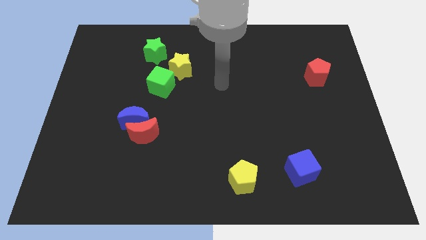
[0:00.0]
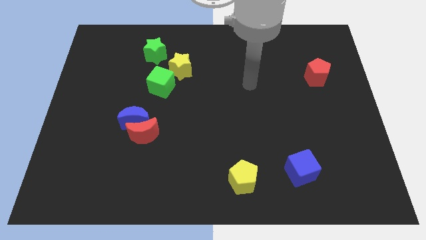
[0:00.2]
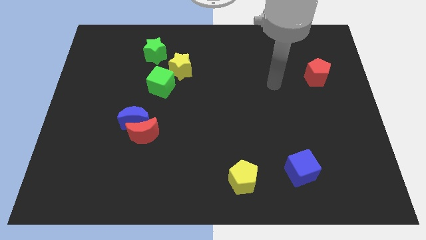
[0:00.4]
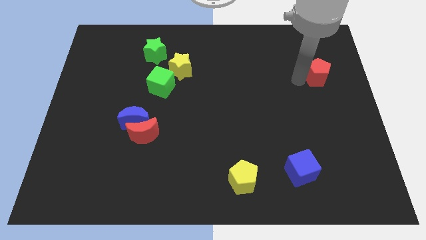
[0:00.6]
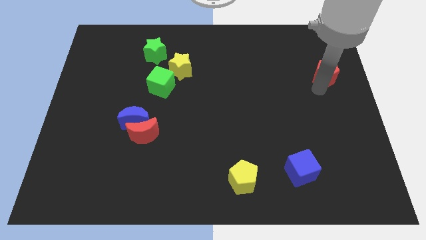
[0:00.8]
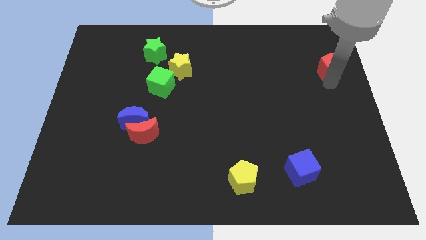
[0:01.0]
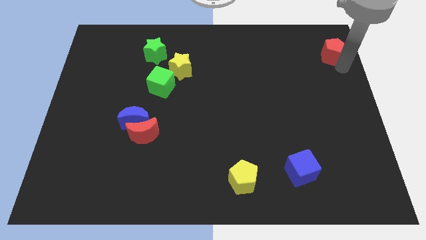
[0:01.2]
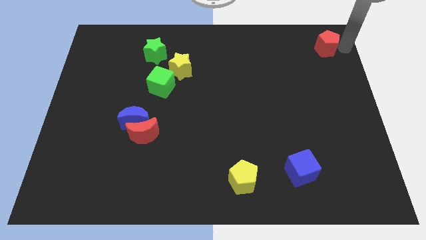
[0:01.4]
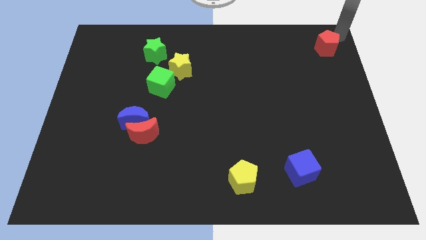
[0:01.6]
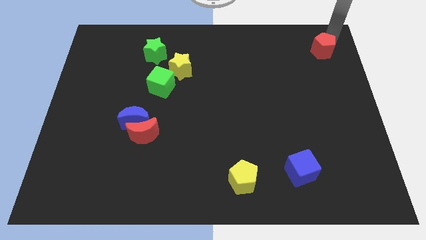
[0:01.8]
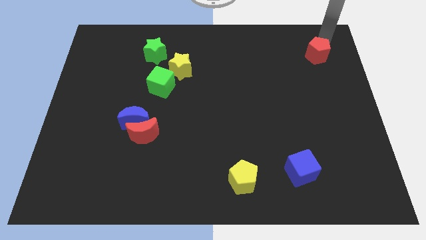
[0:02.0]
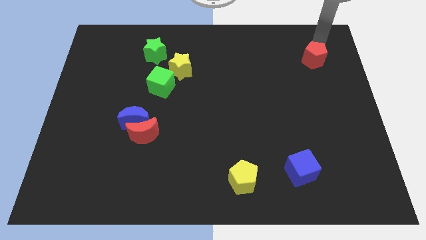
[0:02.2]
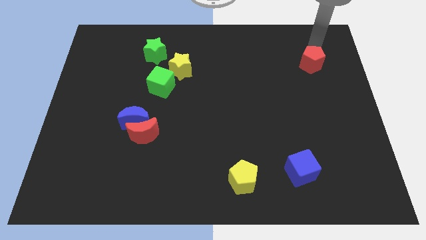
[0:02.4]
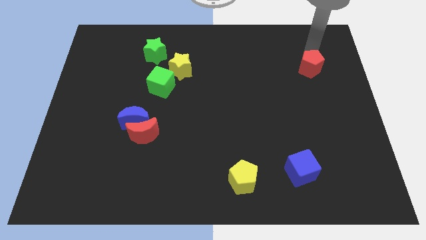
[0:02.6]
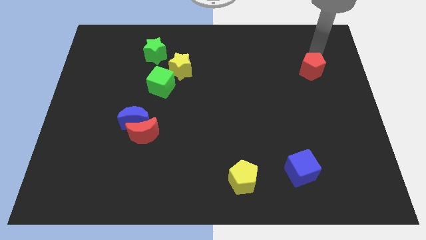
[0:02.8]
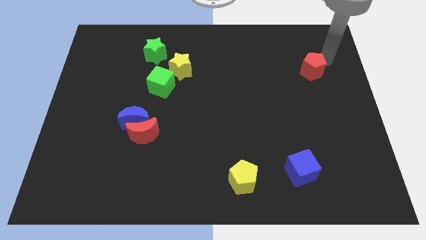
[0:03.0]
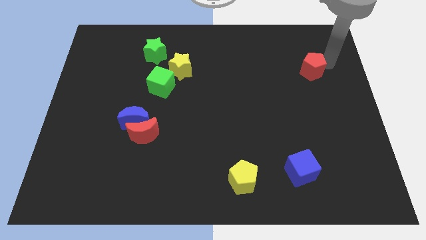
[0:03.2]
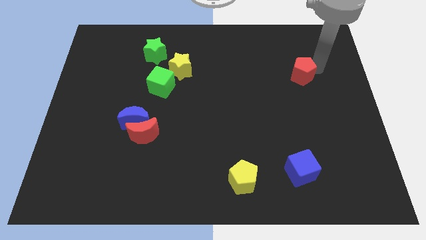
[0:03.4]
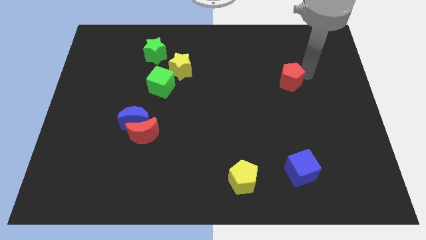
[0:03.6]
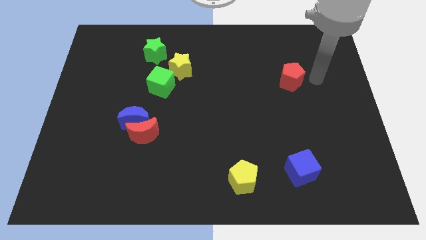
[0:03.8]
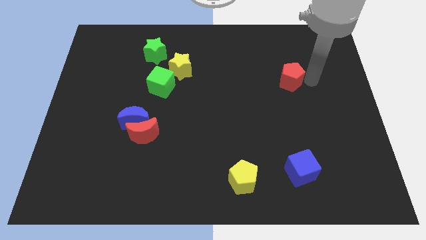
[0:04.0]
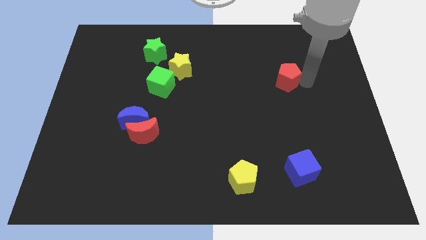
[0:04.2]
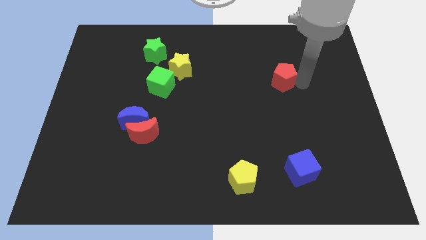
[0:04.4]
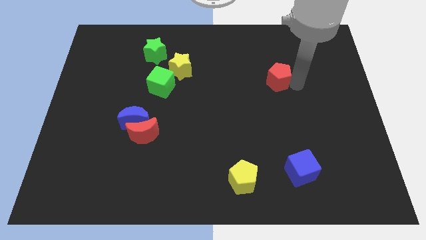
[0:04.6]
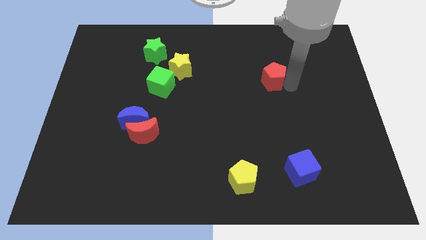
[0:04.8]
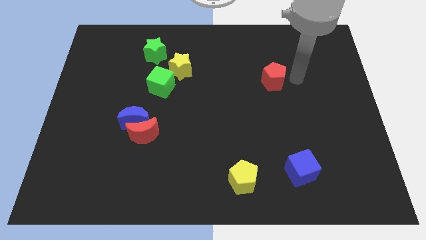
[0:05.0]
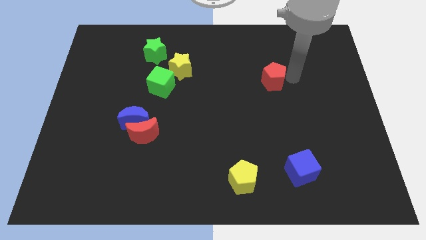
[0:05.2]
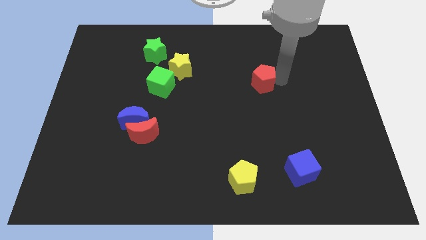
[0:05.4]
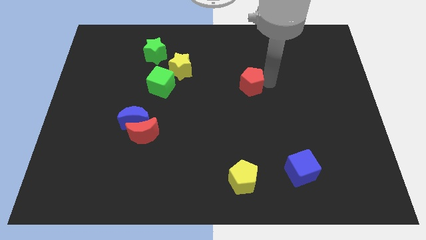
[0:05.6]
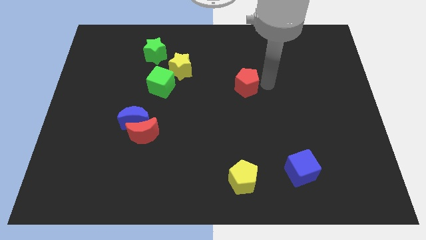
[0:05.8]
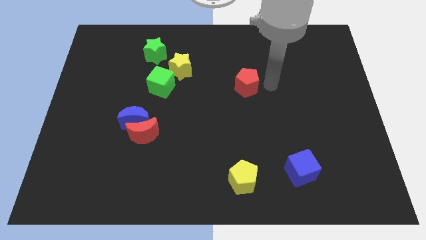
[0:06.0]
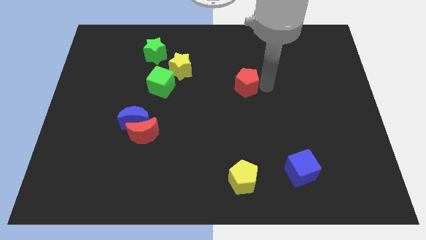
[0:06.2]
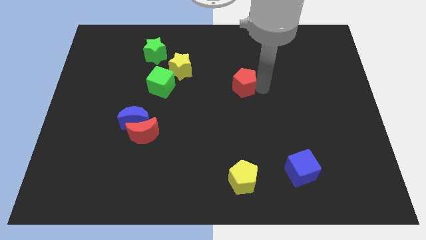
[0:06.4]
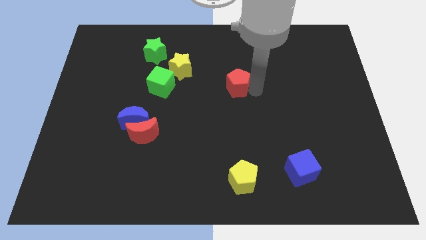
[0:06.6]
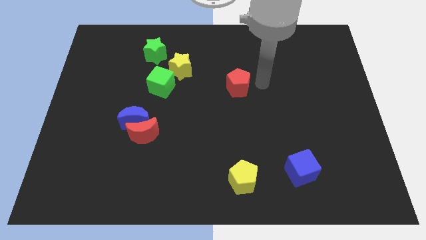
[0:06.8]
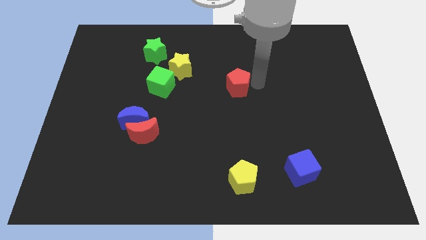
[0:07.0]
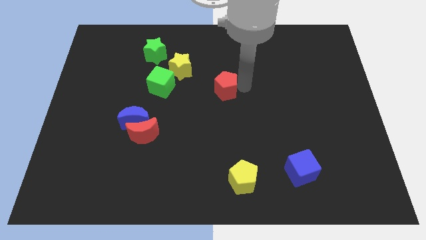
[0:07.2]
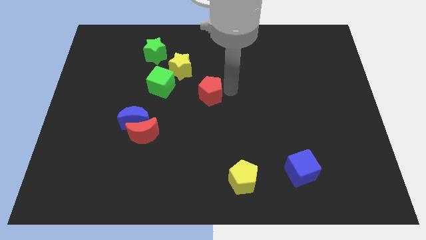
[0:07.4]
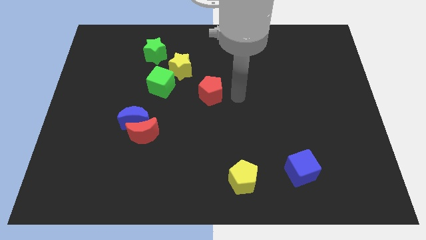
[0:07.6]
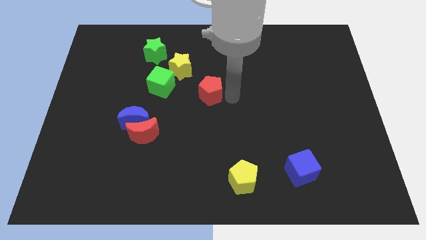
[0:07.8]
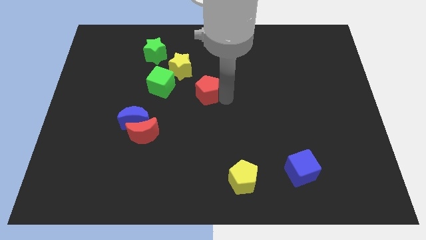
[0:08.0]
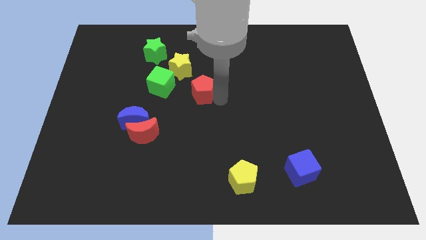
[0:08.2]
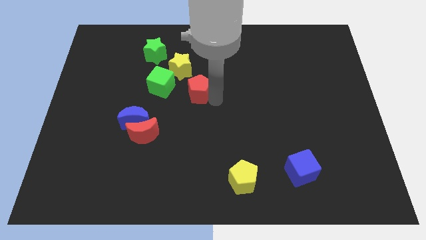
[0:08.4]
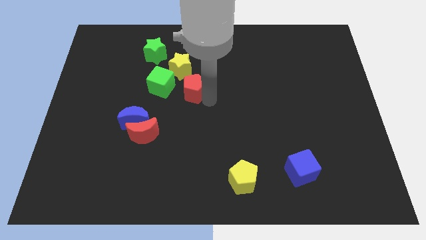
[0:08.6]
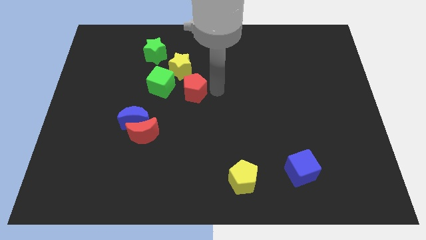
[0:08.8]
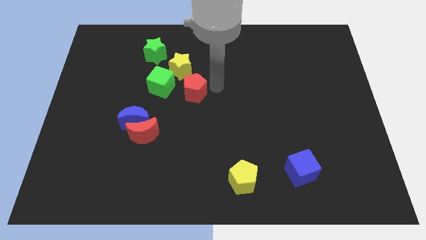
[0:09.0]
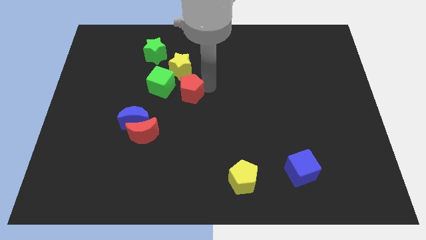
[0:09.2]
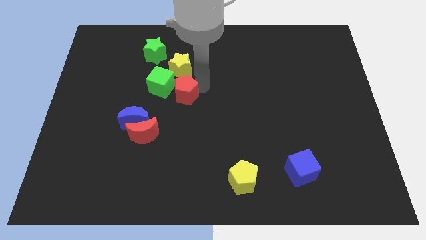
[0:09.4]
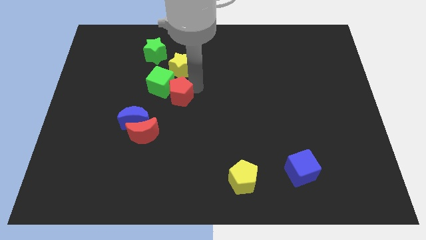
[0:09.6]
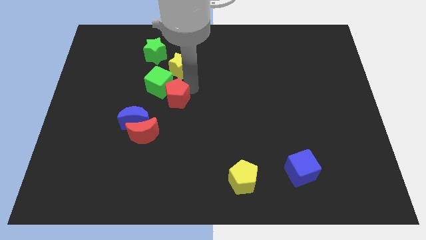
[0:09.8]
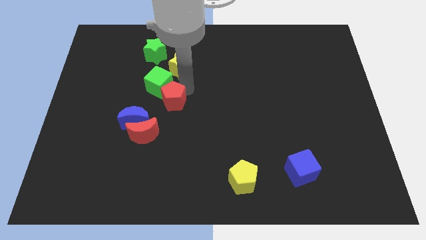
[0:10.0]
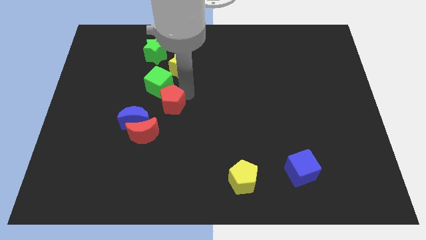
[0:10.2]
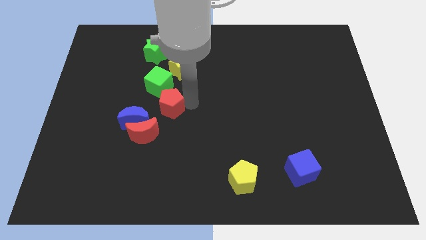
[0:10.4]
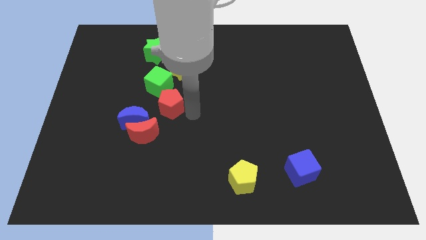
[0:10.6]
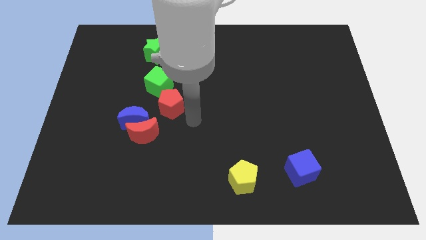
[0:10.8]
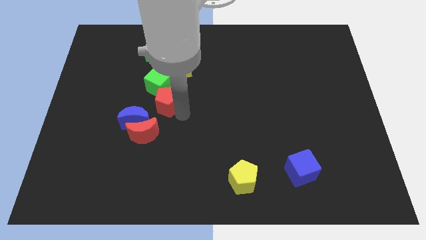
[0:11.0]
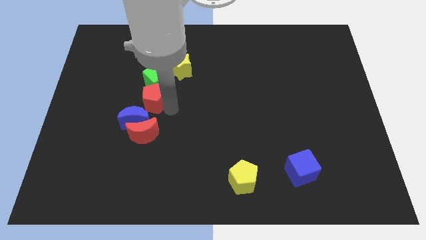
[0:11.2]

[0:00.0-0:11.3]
put the red pentagon to the bottom left side of the yellow star

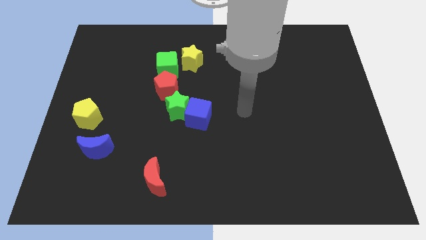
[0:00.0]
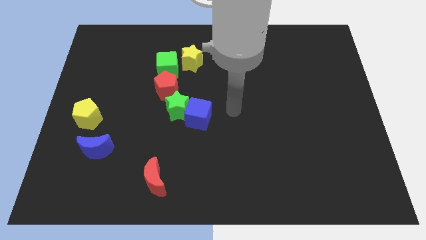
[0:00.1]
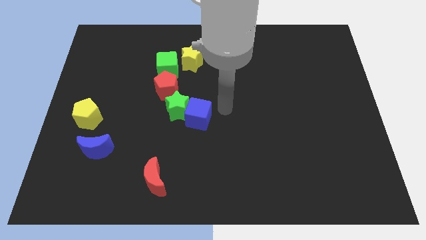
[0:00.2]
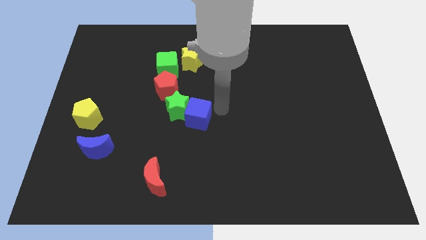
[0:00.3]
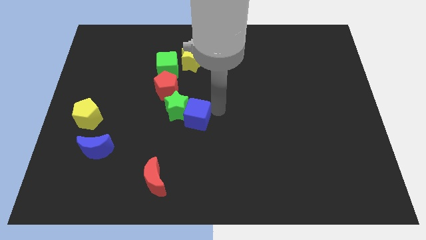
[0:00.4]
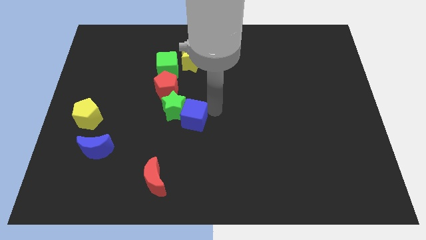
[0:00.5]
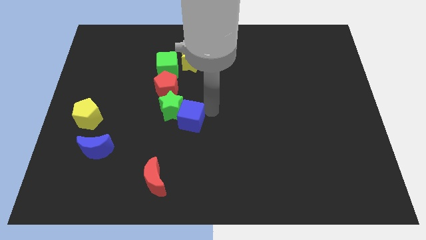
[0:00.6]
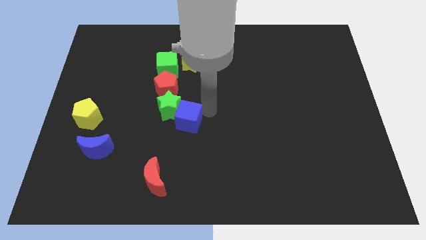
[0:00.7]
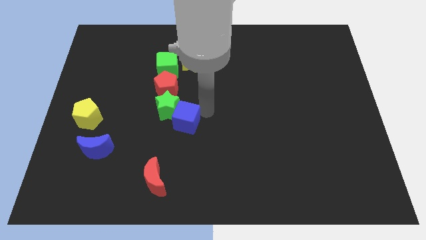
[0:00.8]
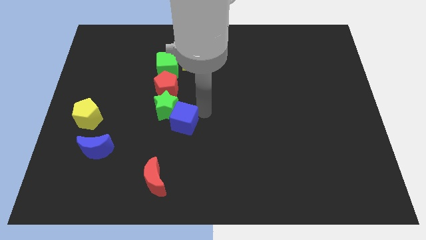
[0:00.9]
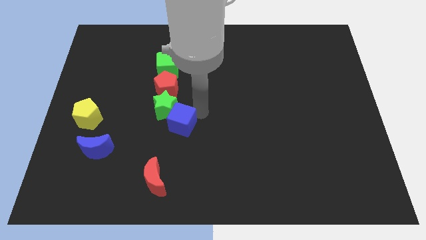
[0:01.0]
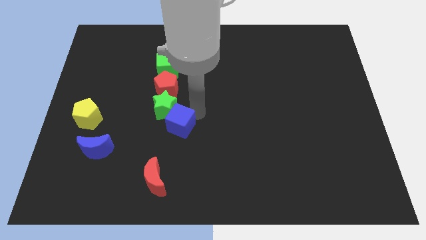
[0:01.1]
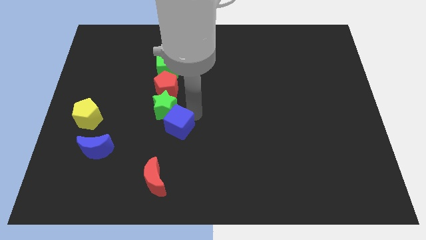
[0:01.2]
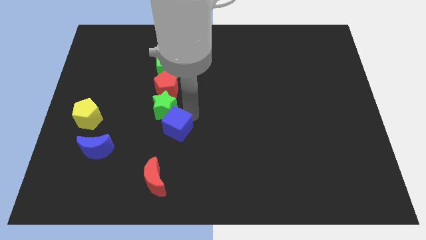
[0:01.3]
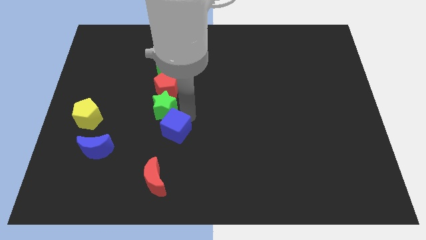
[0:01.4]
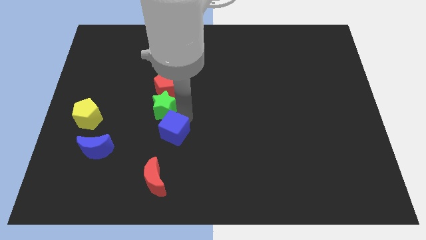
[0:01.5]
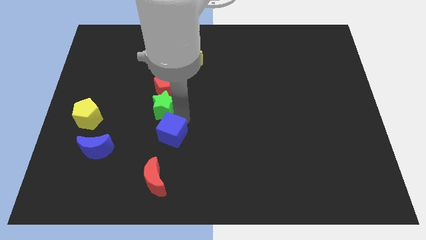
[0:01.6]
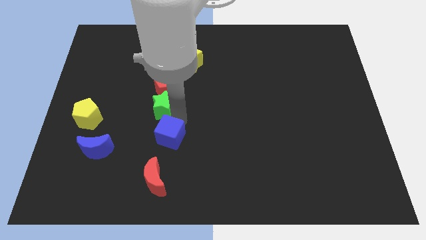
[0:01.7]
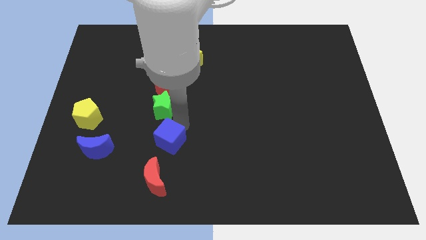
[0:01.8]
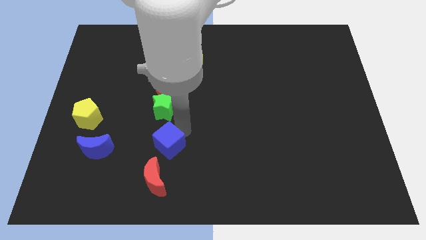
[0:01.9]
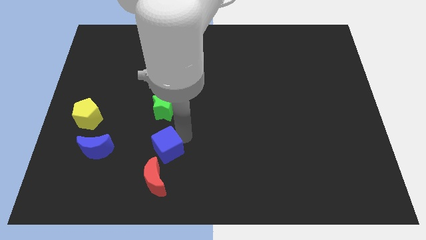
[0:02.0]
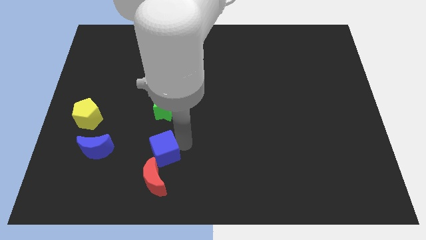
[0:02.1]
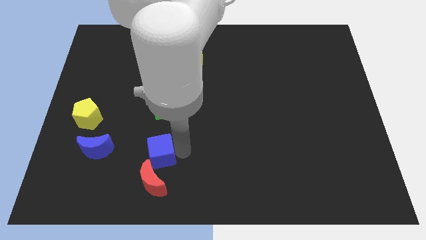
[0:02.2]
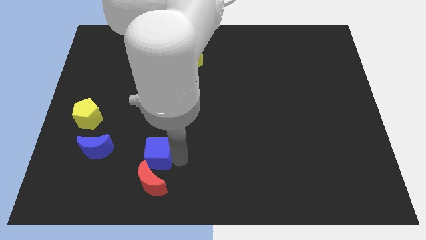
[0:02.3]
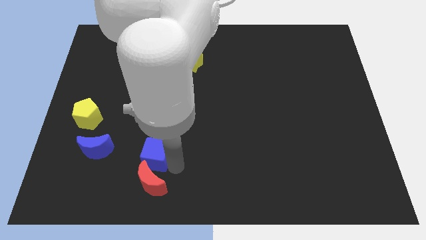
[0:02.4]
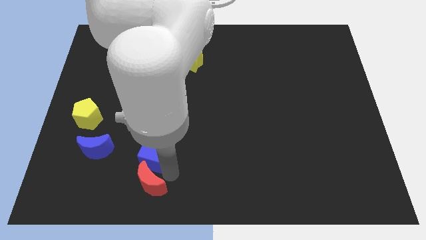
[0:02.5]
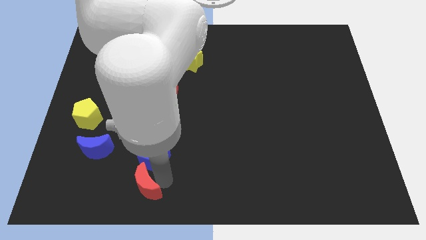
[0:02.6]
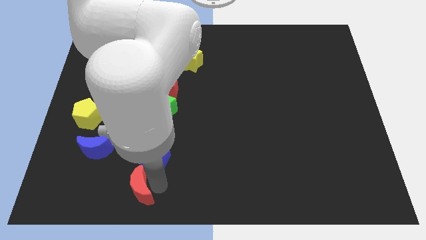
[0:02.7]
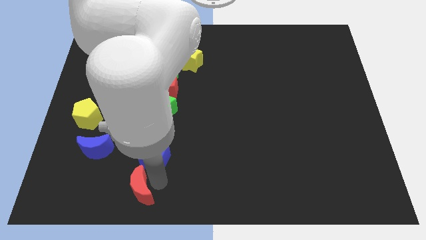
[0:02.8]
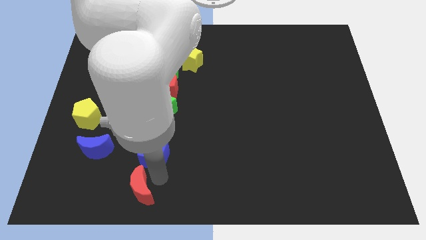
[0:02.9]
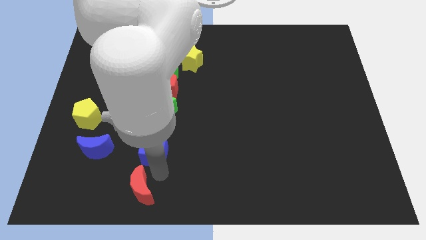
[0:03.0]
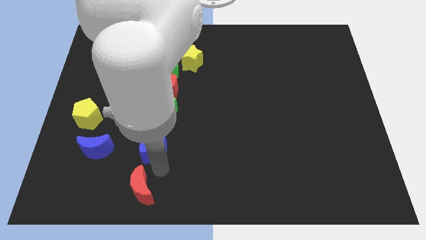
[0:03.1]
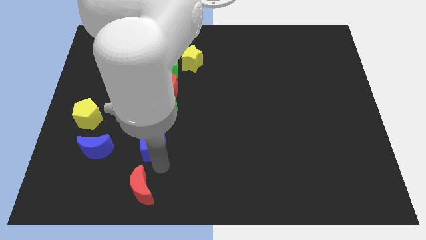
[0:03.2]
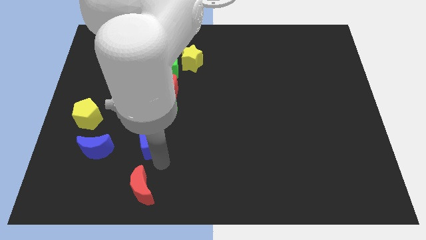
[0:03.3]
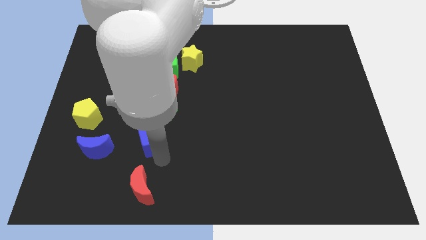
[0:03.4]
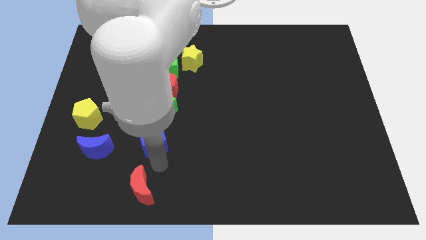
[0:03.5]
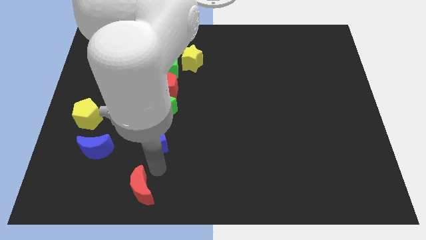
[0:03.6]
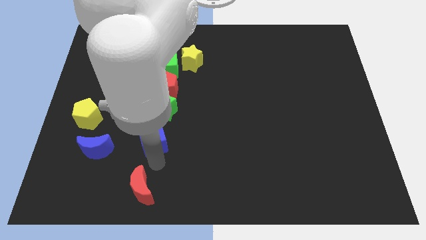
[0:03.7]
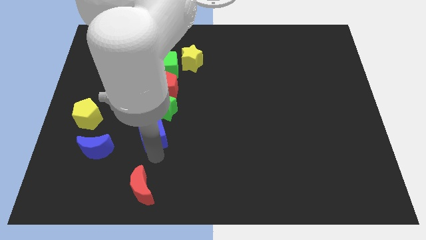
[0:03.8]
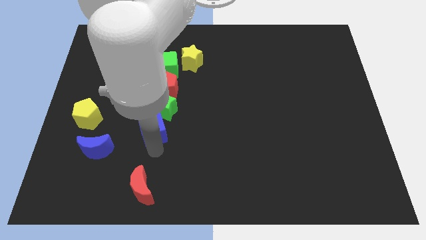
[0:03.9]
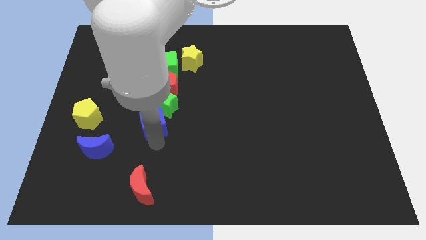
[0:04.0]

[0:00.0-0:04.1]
move the blue cube to the right side of the yellow pentagon
